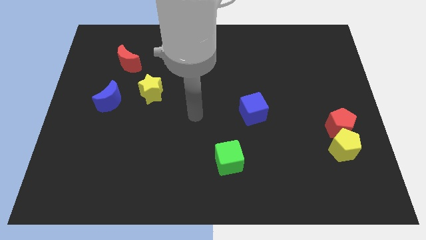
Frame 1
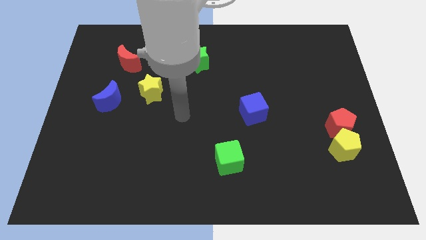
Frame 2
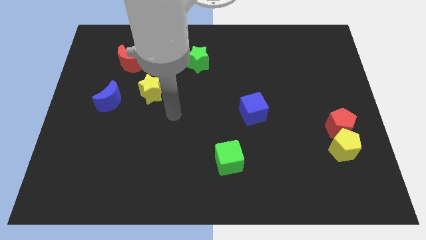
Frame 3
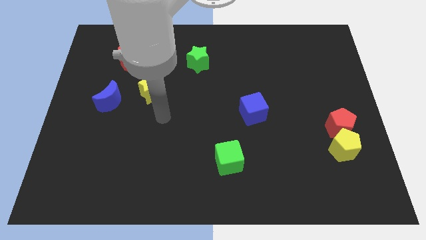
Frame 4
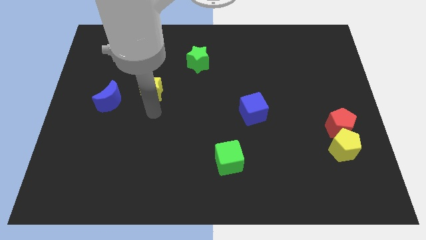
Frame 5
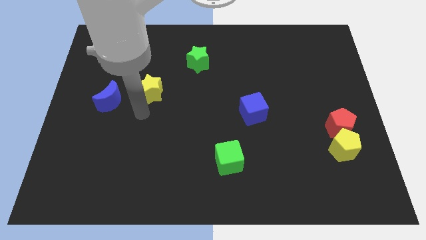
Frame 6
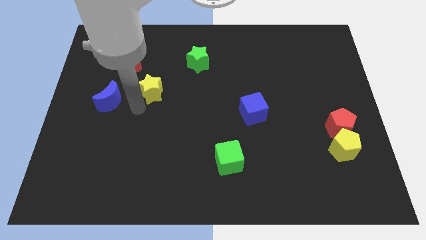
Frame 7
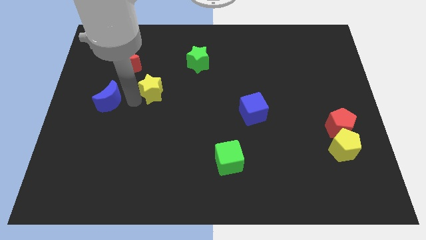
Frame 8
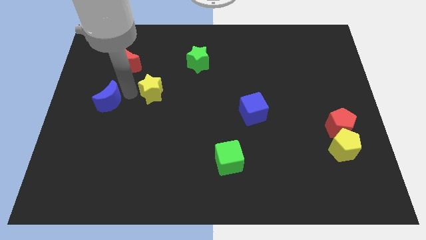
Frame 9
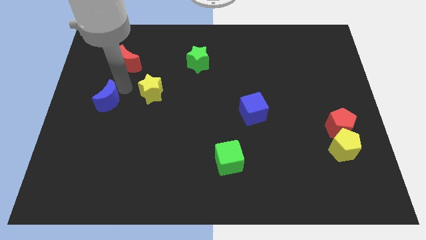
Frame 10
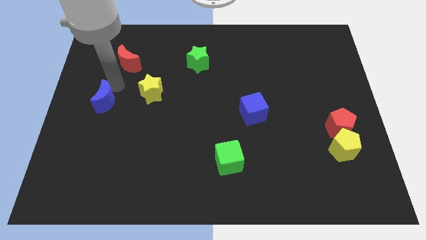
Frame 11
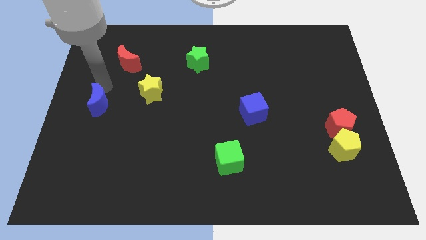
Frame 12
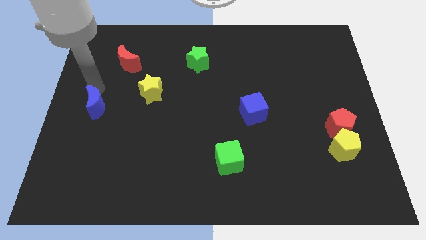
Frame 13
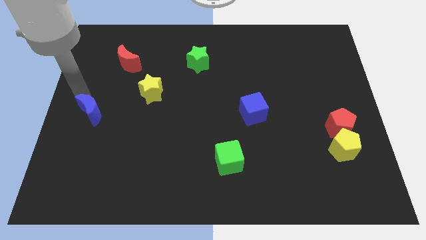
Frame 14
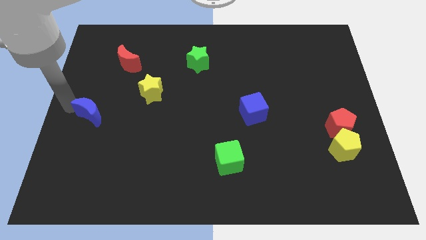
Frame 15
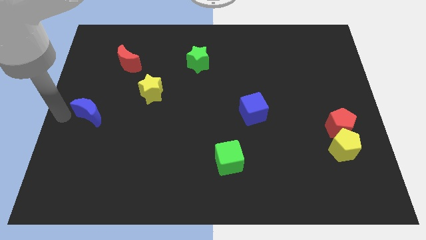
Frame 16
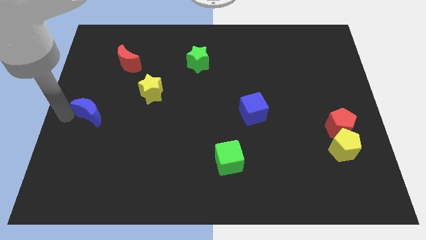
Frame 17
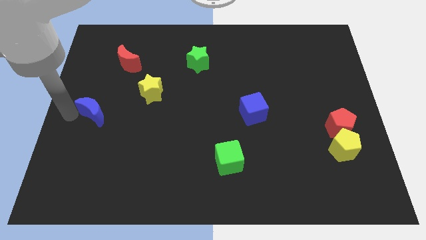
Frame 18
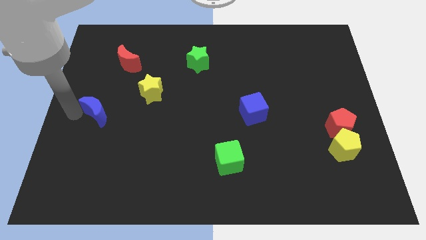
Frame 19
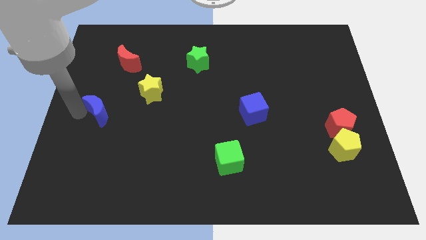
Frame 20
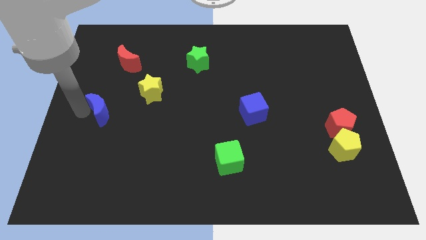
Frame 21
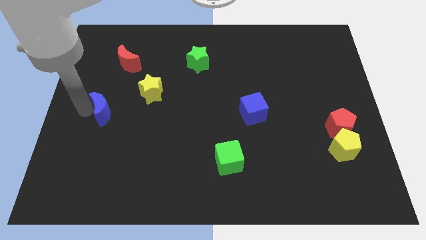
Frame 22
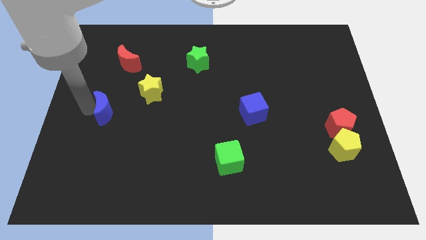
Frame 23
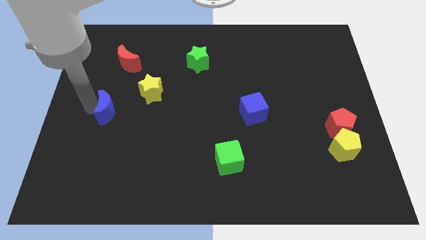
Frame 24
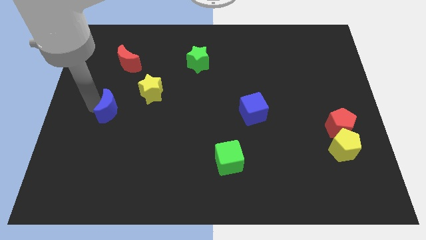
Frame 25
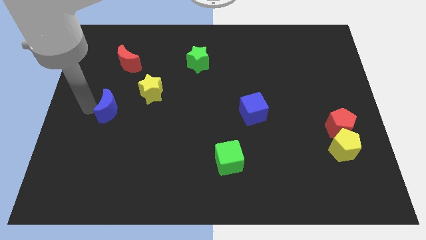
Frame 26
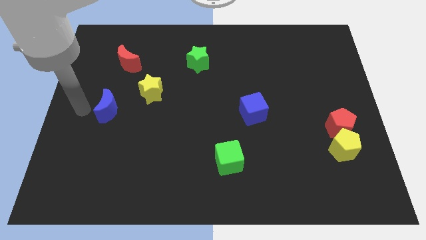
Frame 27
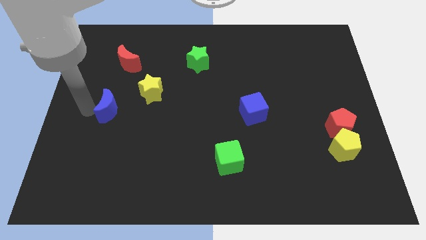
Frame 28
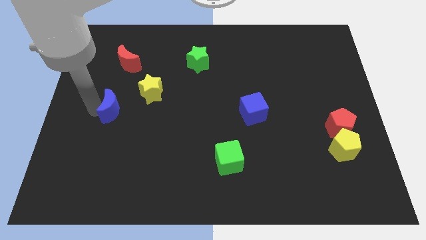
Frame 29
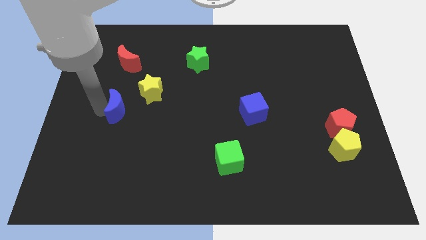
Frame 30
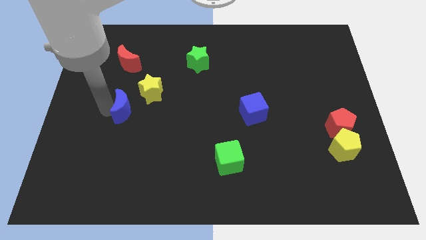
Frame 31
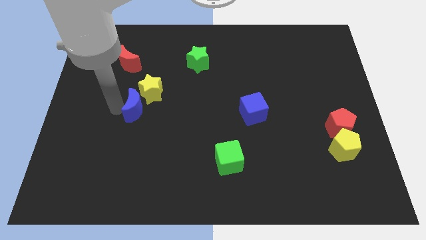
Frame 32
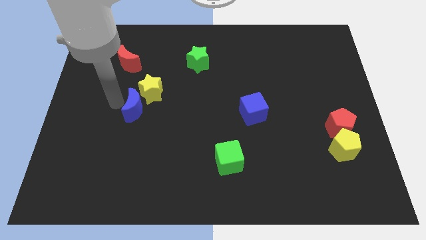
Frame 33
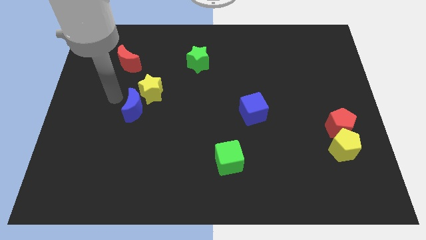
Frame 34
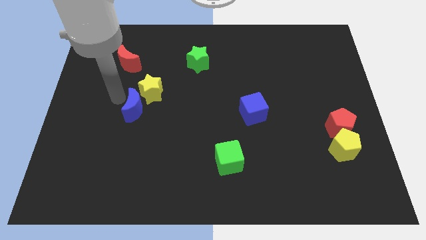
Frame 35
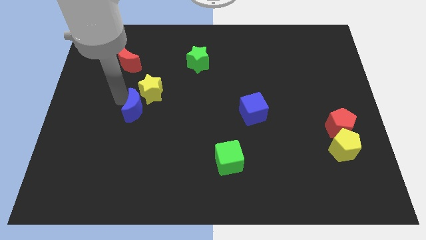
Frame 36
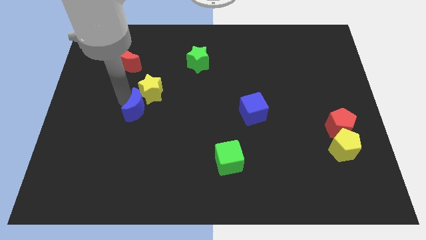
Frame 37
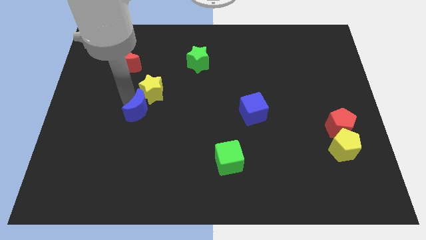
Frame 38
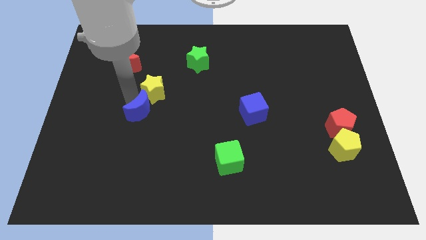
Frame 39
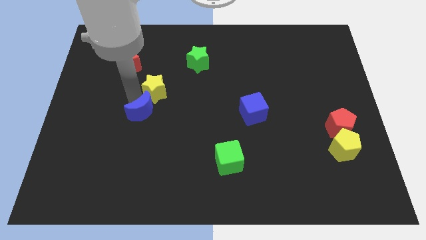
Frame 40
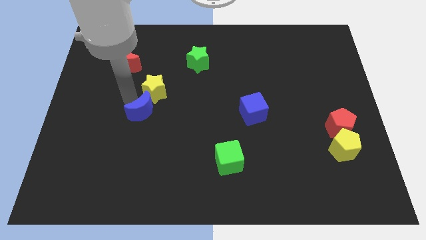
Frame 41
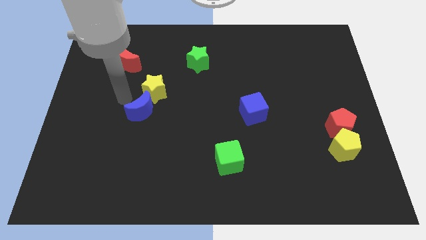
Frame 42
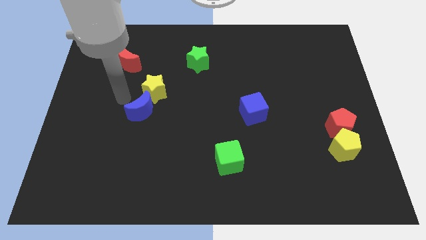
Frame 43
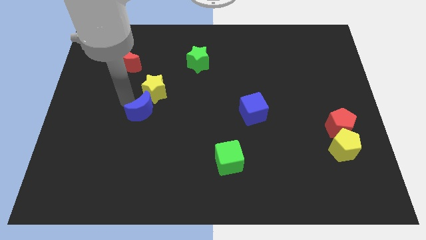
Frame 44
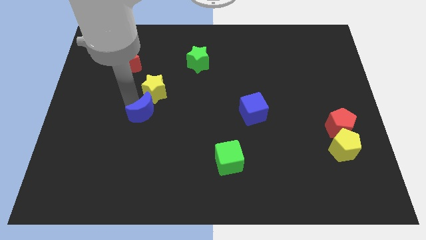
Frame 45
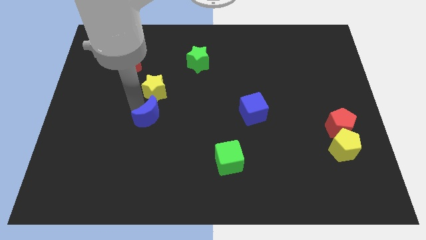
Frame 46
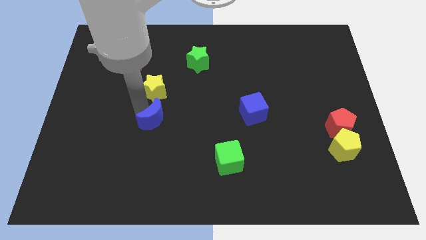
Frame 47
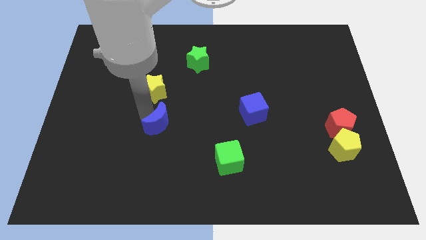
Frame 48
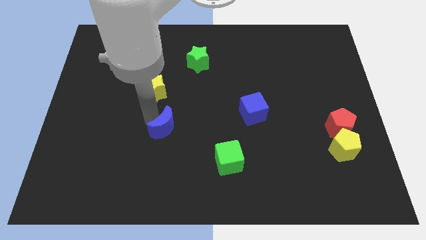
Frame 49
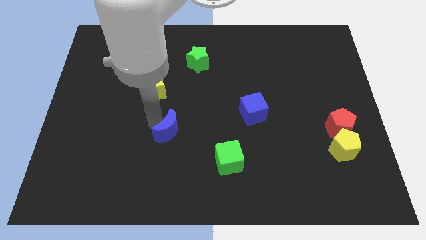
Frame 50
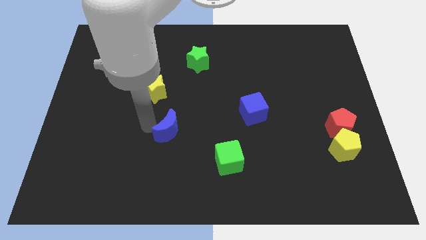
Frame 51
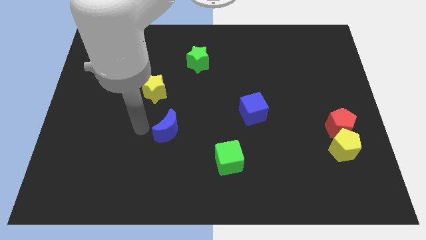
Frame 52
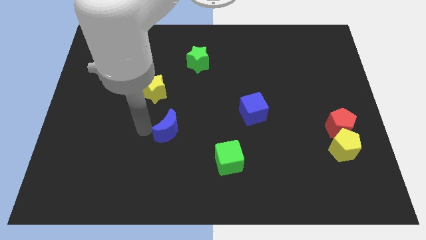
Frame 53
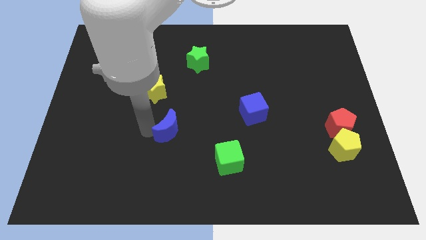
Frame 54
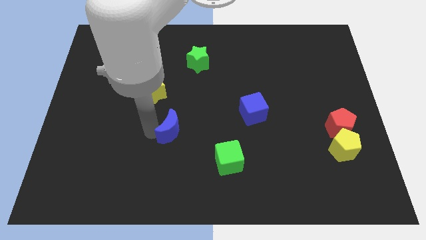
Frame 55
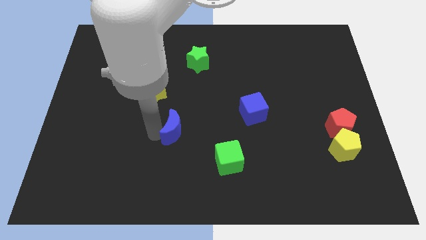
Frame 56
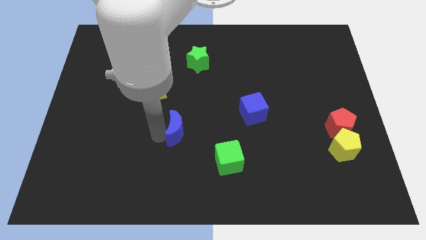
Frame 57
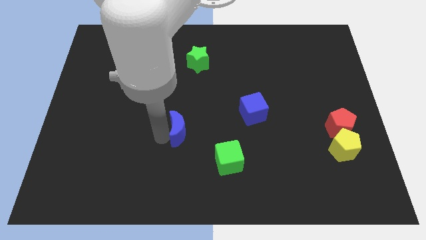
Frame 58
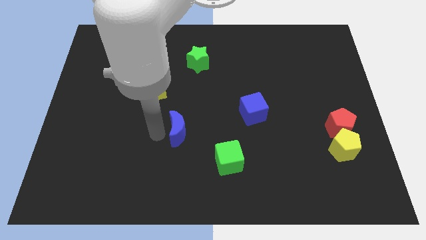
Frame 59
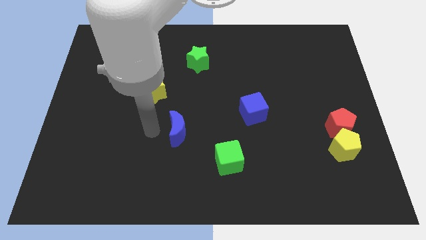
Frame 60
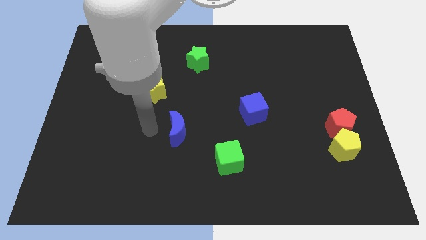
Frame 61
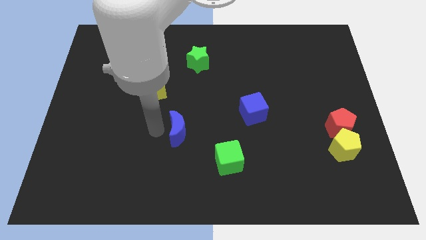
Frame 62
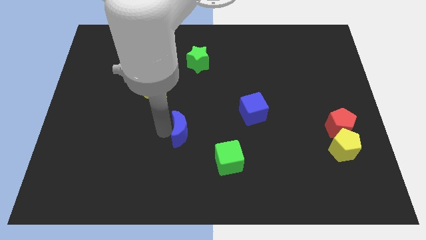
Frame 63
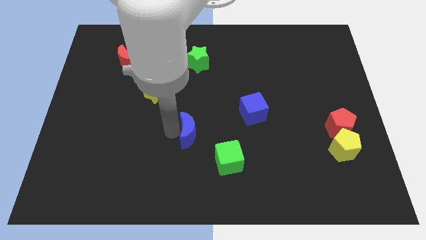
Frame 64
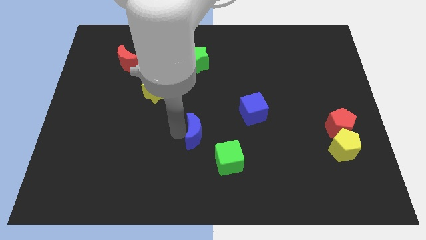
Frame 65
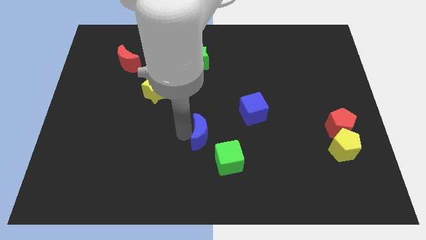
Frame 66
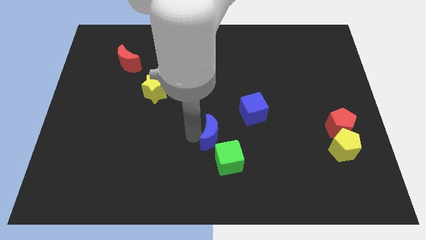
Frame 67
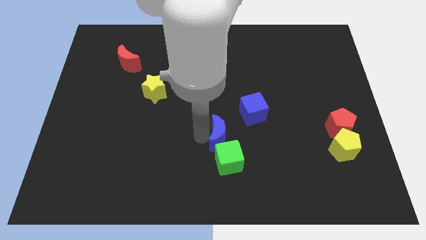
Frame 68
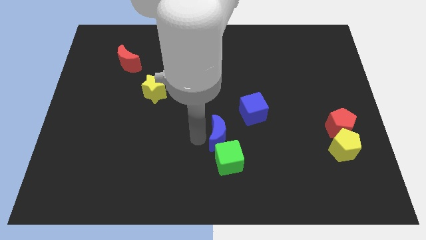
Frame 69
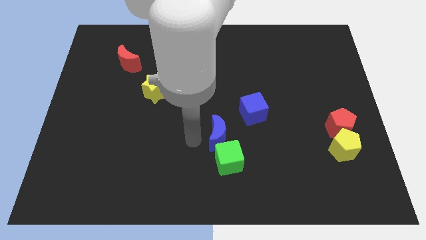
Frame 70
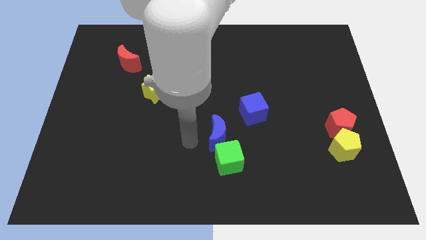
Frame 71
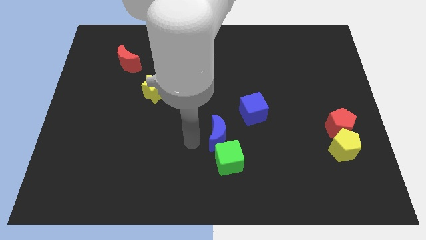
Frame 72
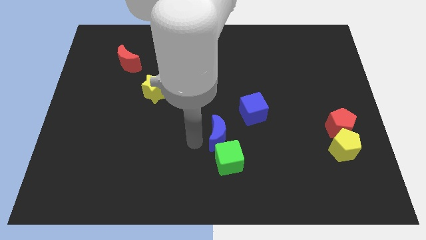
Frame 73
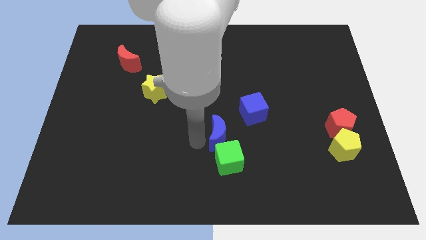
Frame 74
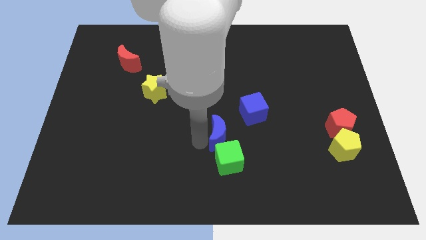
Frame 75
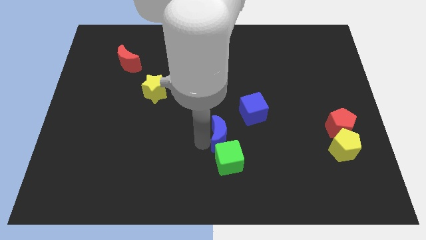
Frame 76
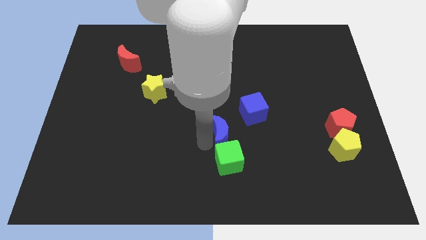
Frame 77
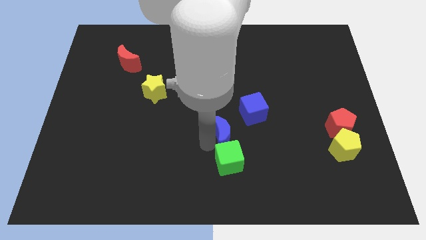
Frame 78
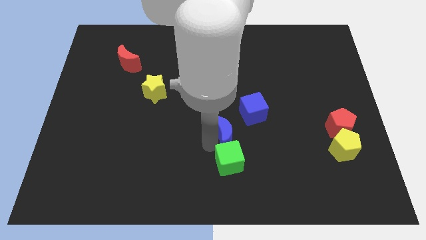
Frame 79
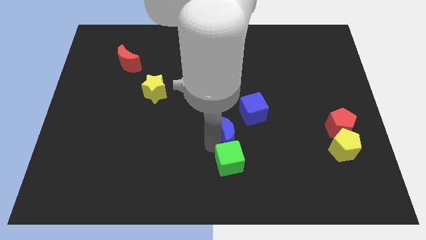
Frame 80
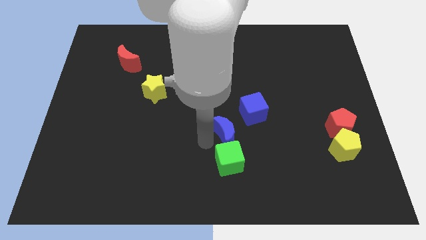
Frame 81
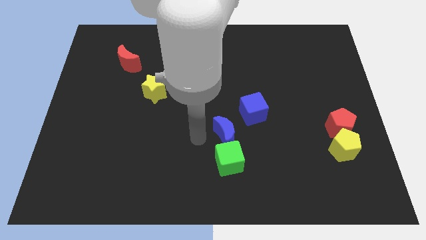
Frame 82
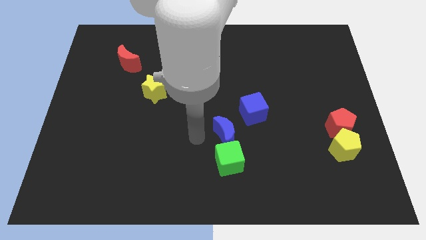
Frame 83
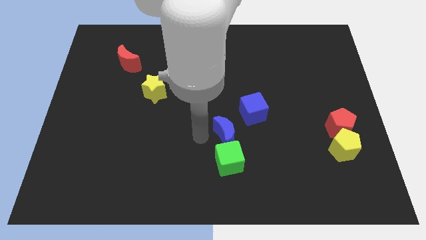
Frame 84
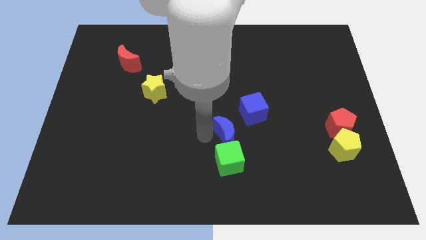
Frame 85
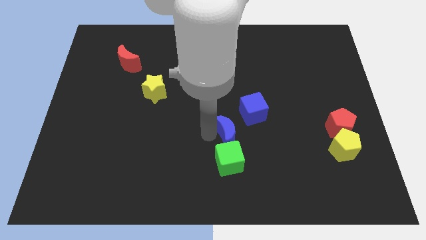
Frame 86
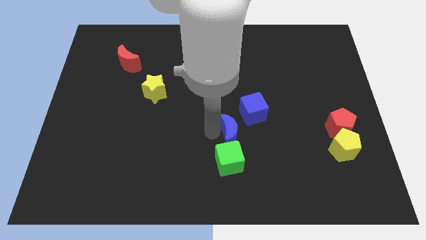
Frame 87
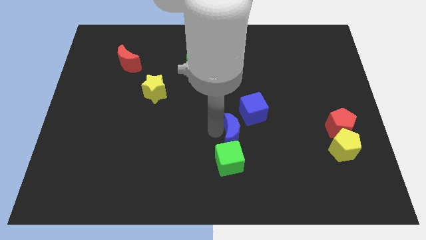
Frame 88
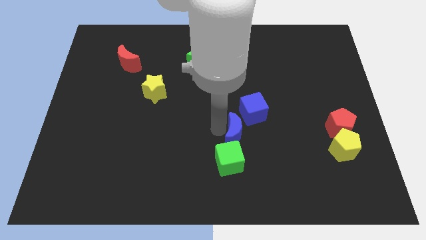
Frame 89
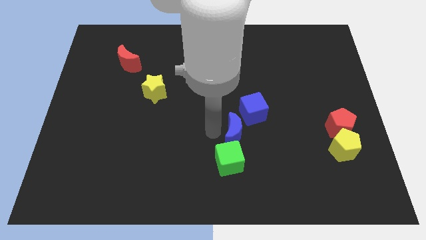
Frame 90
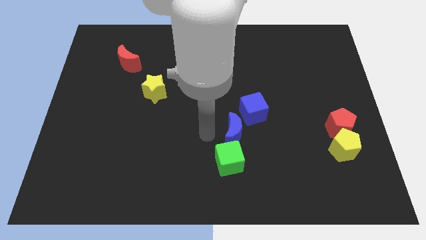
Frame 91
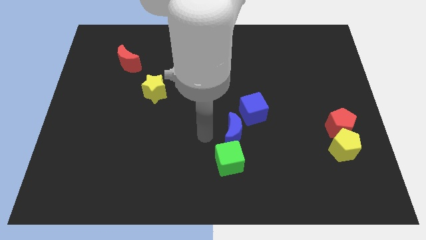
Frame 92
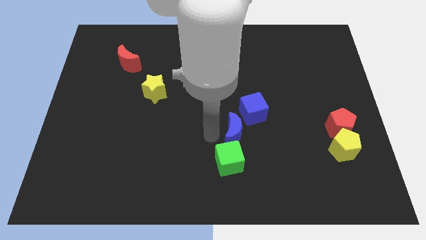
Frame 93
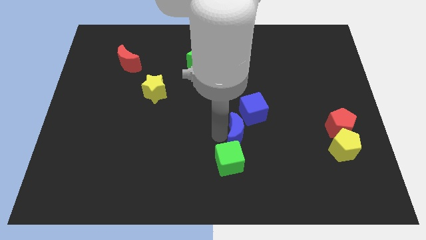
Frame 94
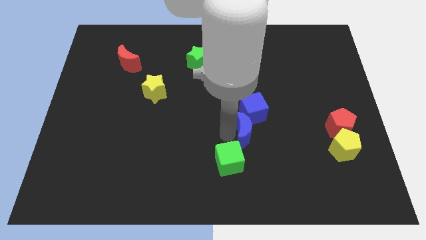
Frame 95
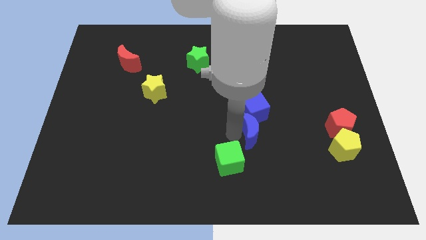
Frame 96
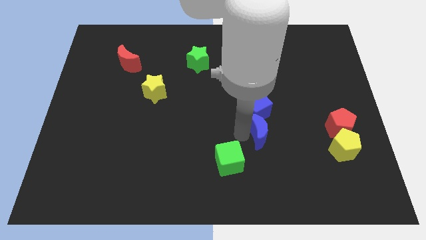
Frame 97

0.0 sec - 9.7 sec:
put the blue moon diagonally down and to the right of the blue cube
